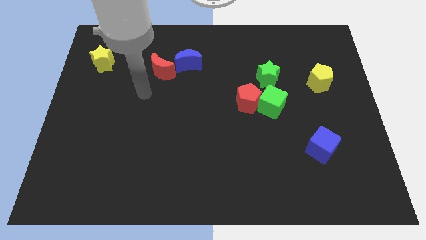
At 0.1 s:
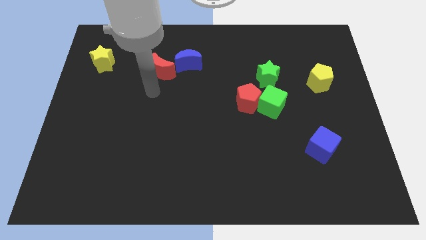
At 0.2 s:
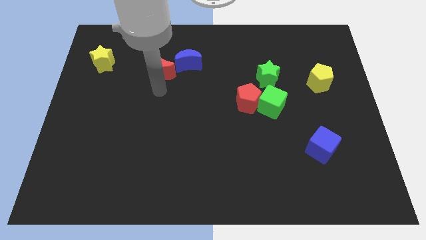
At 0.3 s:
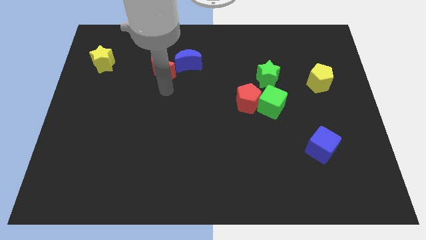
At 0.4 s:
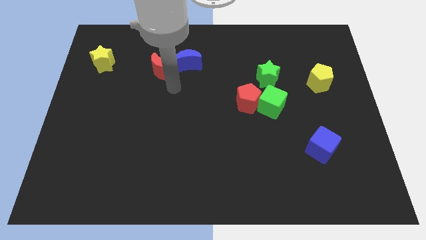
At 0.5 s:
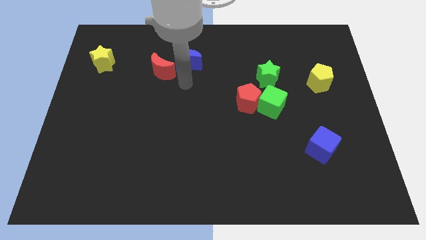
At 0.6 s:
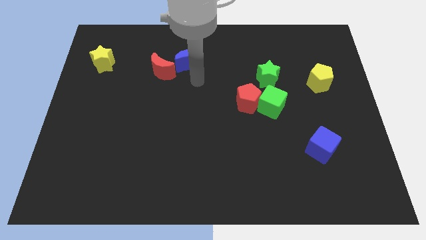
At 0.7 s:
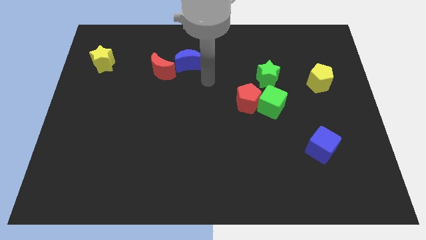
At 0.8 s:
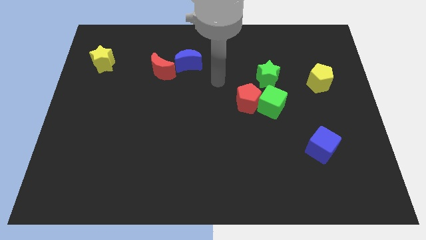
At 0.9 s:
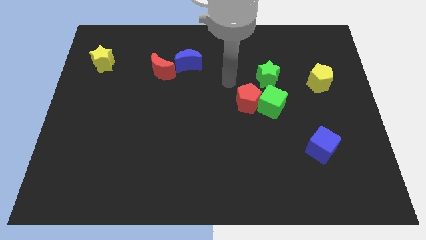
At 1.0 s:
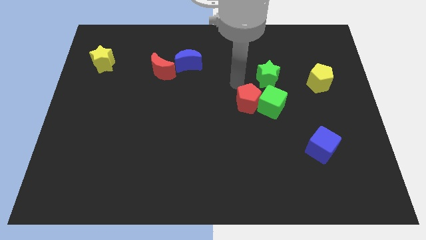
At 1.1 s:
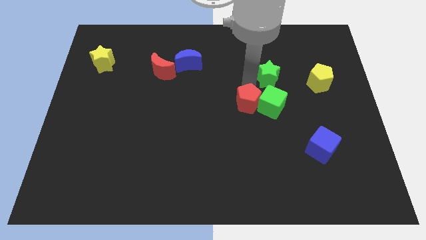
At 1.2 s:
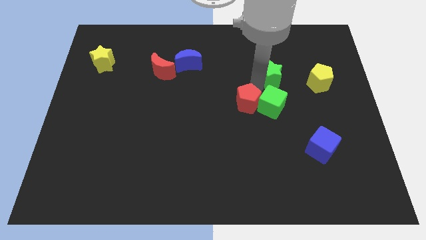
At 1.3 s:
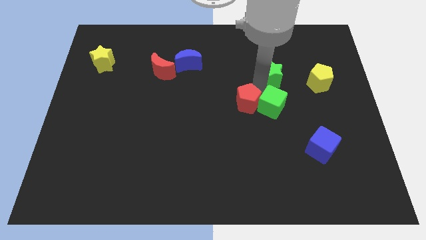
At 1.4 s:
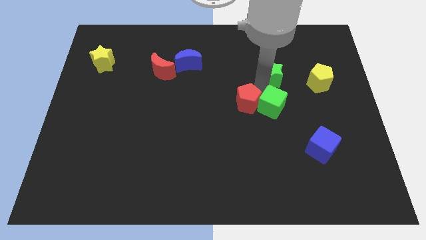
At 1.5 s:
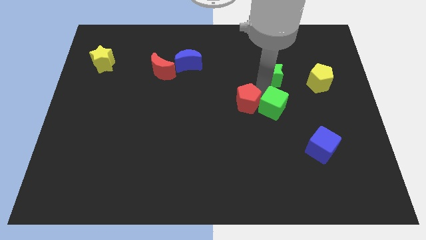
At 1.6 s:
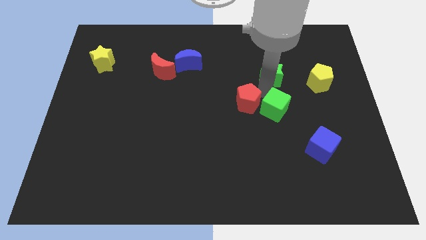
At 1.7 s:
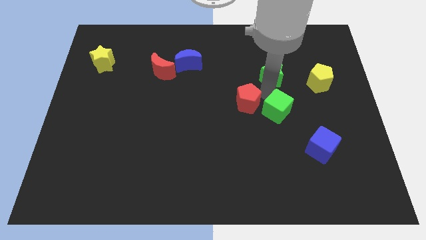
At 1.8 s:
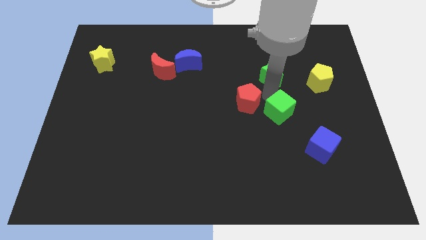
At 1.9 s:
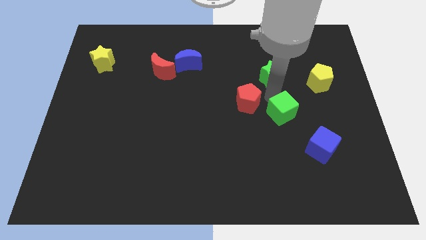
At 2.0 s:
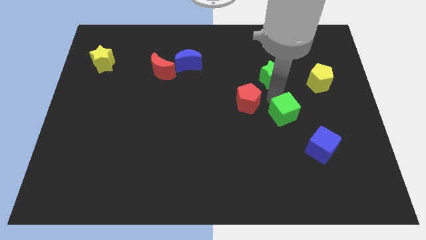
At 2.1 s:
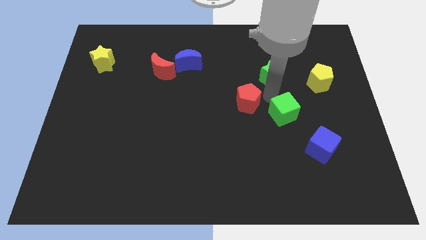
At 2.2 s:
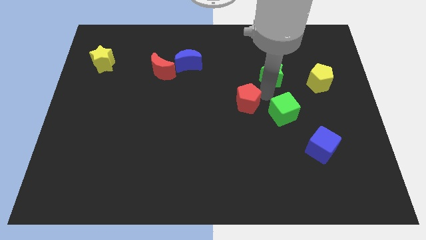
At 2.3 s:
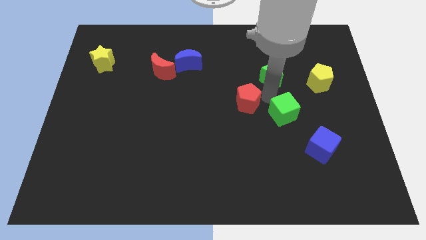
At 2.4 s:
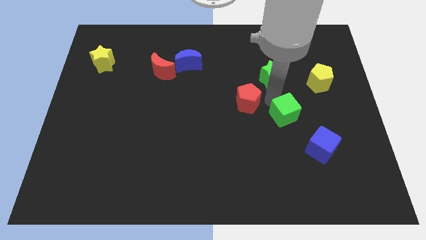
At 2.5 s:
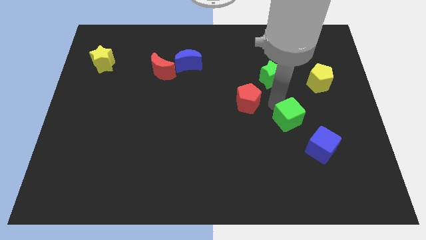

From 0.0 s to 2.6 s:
move the green cube away from the red pentagon and green star

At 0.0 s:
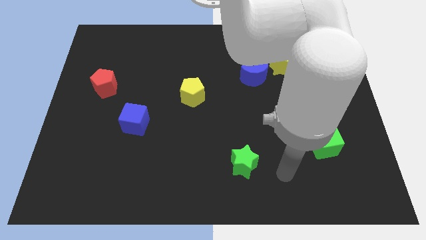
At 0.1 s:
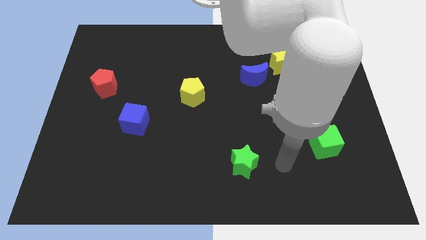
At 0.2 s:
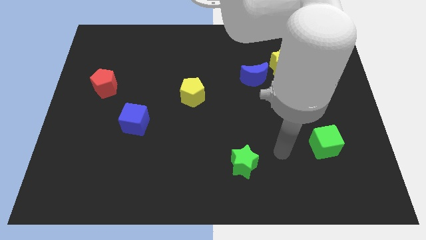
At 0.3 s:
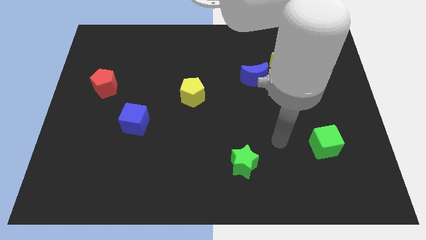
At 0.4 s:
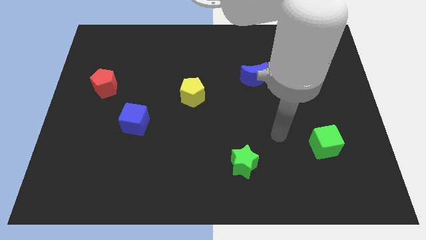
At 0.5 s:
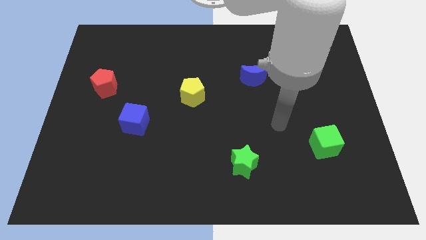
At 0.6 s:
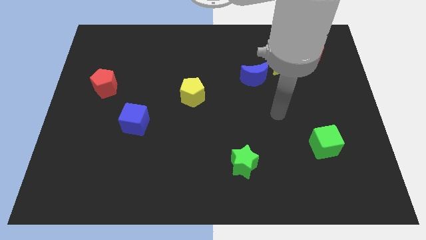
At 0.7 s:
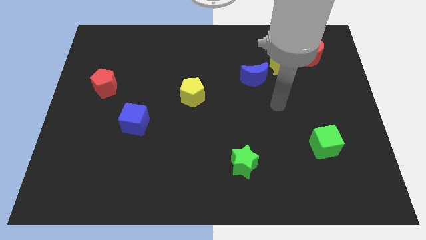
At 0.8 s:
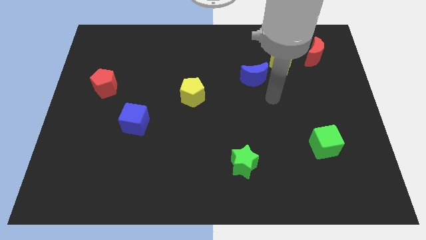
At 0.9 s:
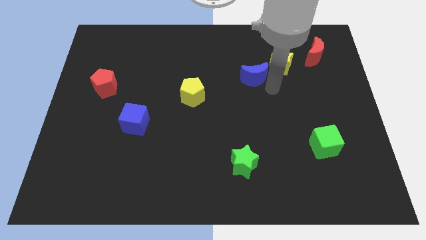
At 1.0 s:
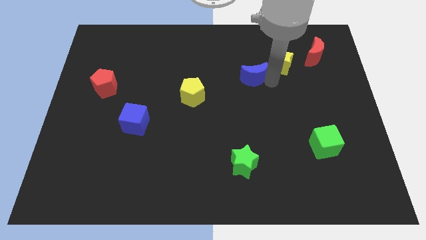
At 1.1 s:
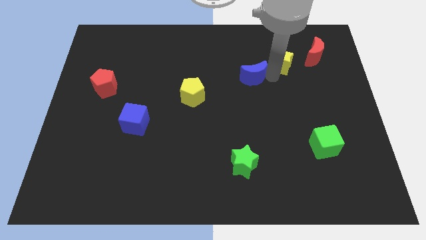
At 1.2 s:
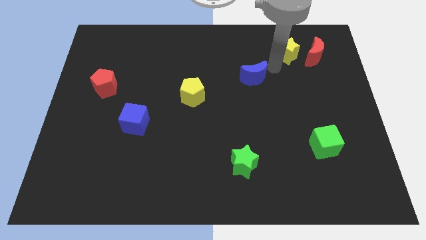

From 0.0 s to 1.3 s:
move the blue moon away from the yellow star

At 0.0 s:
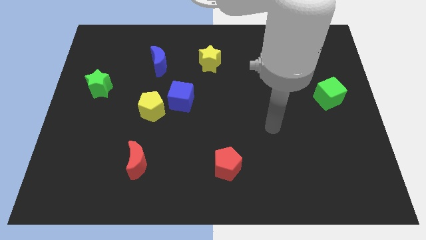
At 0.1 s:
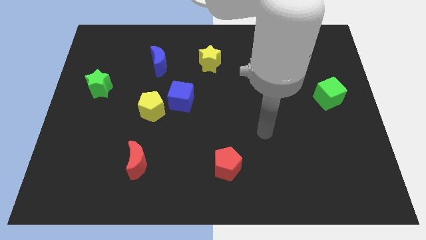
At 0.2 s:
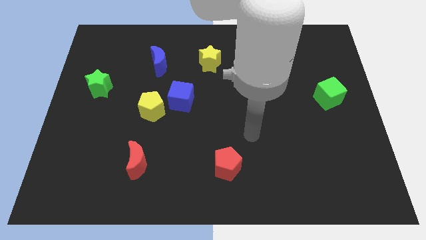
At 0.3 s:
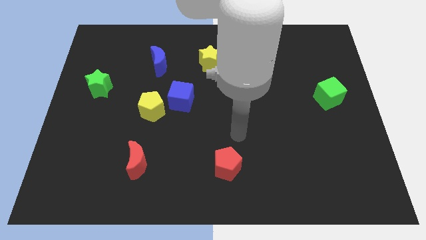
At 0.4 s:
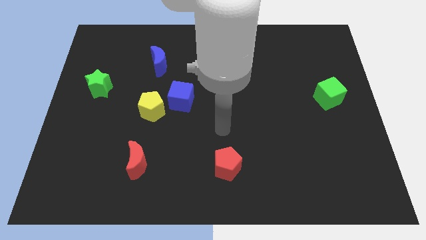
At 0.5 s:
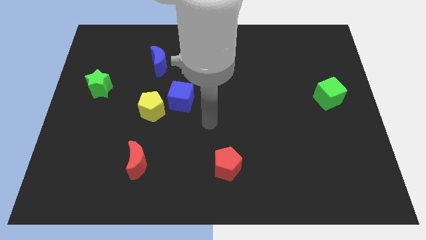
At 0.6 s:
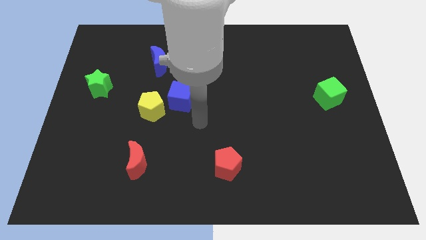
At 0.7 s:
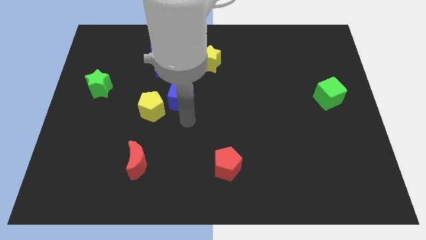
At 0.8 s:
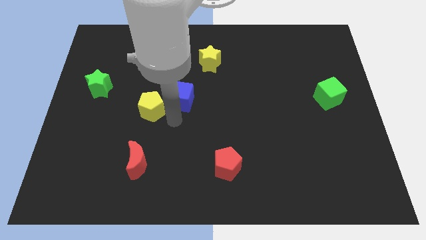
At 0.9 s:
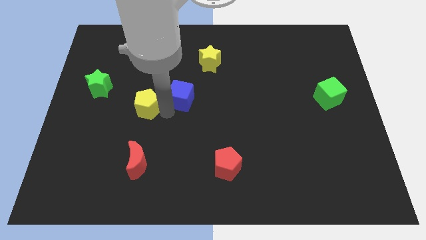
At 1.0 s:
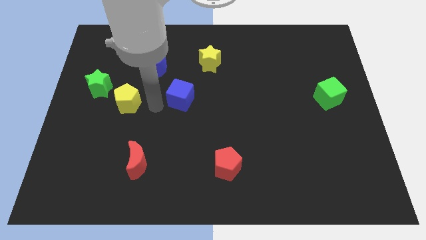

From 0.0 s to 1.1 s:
separate the blue cube from the yellow pentagon

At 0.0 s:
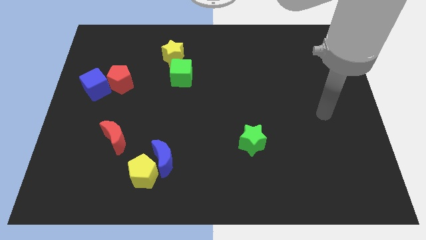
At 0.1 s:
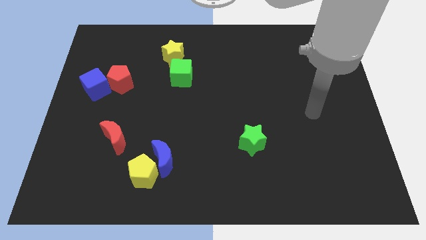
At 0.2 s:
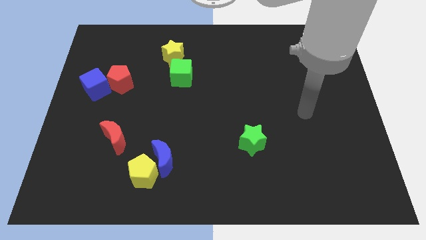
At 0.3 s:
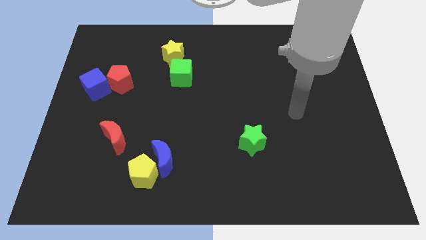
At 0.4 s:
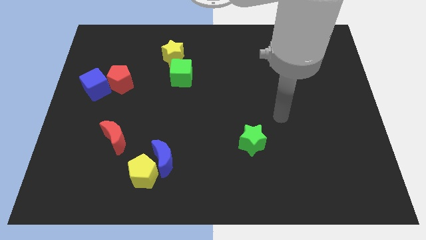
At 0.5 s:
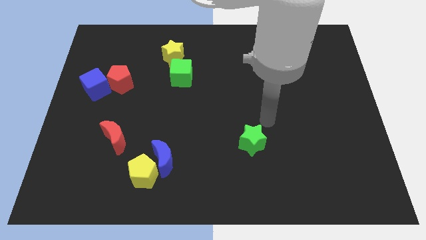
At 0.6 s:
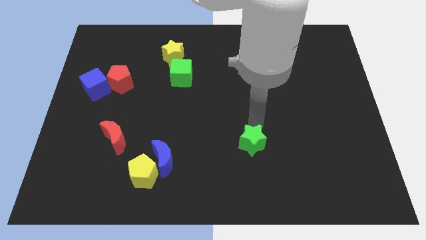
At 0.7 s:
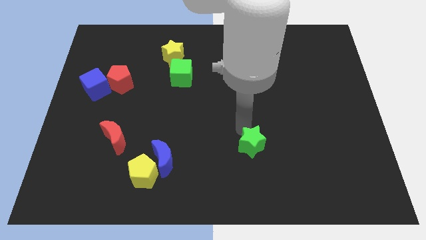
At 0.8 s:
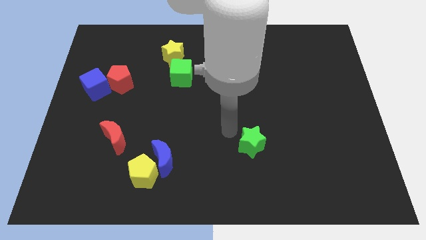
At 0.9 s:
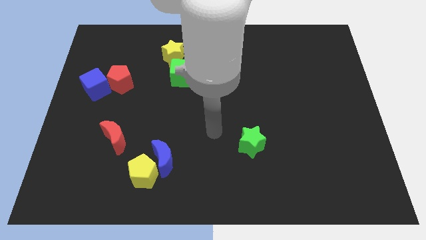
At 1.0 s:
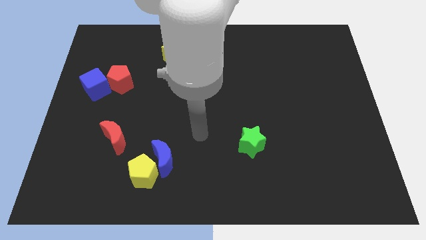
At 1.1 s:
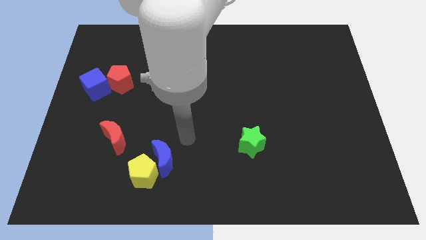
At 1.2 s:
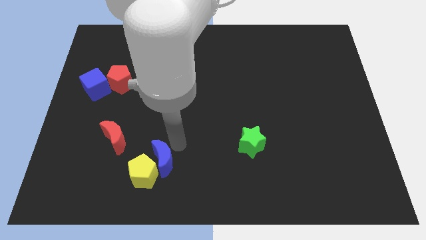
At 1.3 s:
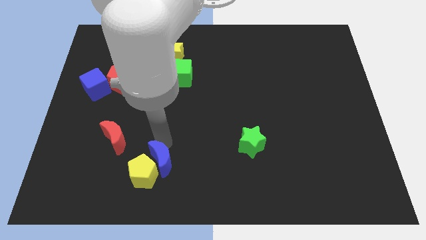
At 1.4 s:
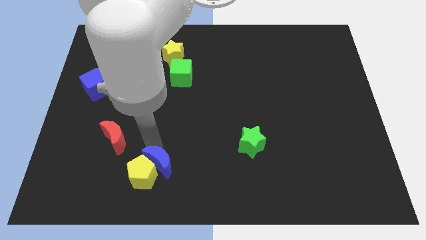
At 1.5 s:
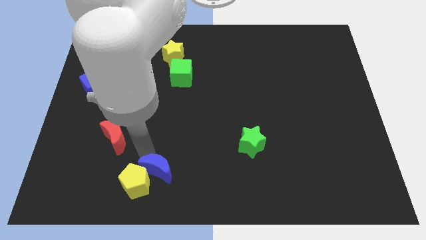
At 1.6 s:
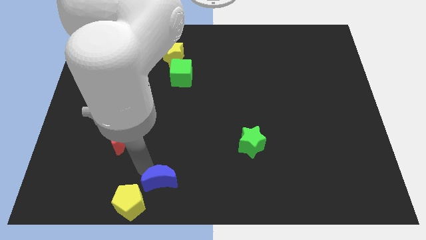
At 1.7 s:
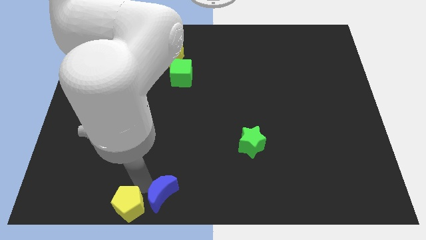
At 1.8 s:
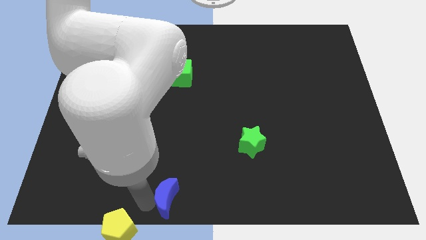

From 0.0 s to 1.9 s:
pull the blue moon apart from the yellow pentagon

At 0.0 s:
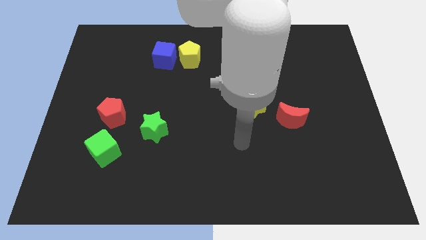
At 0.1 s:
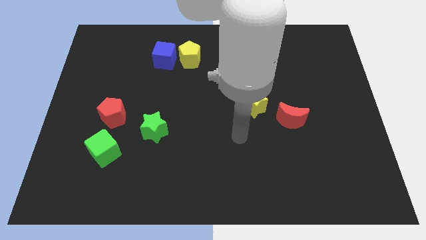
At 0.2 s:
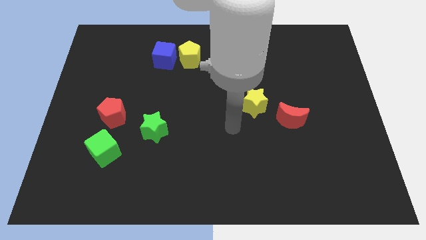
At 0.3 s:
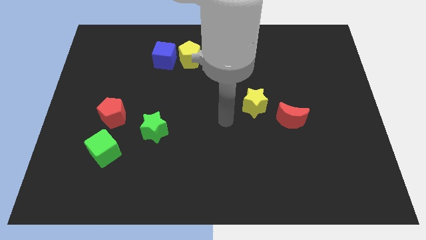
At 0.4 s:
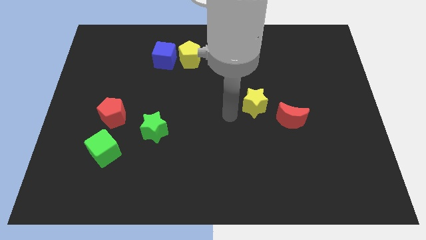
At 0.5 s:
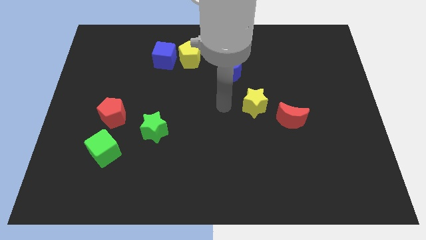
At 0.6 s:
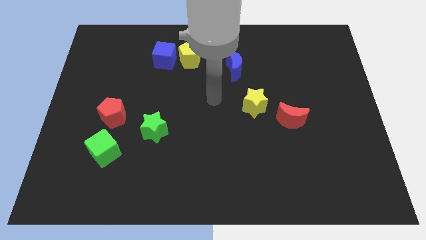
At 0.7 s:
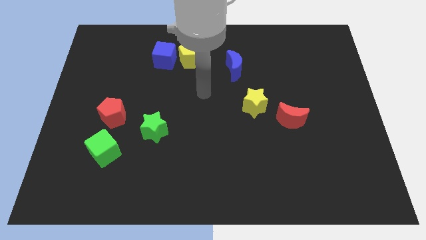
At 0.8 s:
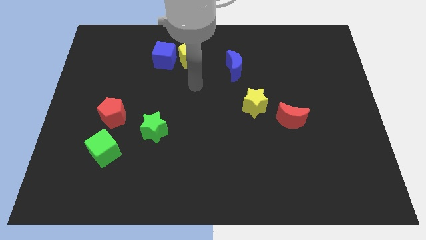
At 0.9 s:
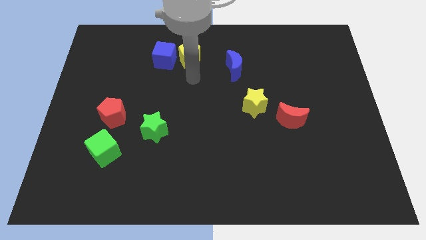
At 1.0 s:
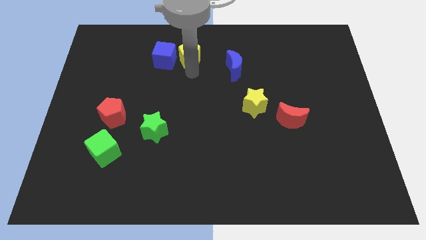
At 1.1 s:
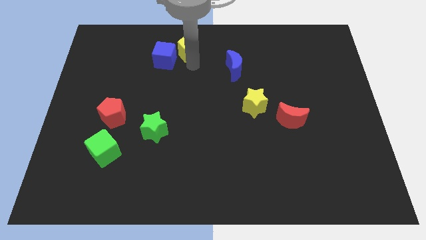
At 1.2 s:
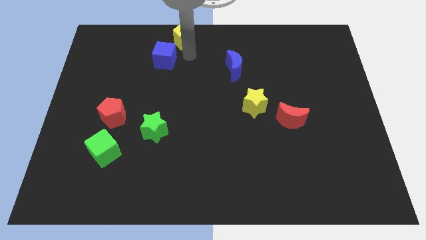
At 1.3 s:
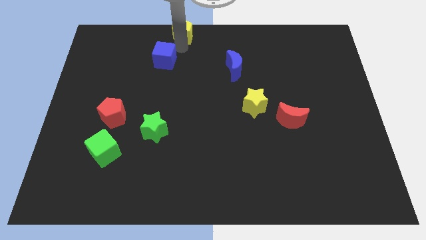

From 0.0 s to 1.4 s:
pull the blue cube apart from the yellow pentagon

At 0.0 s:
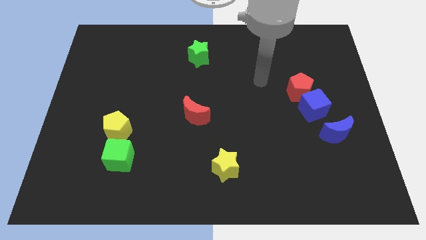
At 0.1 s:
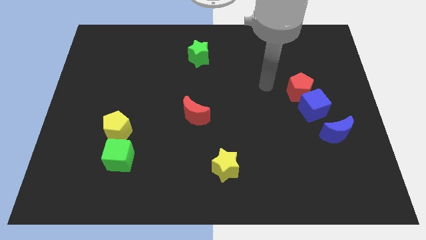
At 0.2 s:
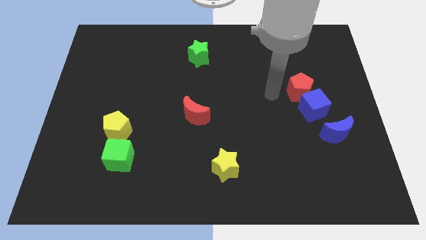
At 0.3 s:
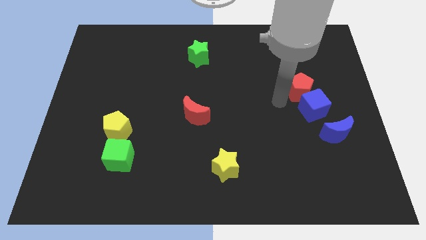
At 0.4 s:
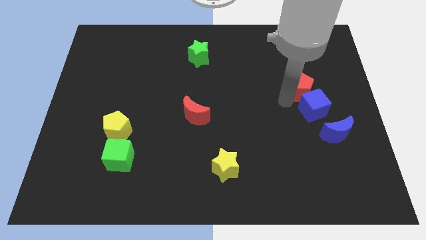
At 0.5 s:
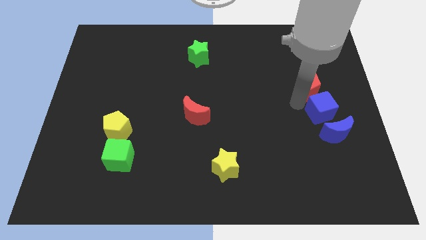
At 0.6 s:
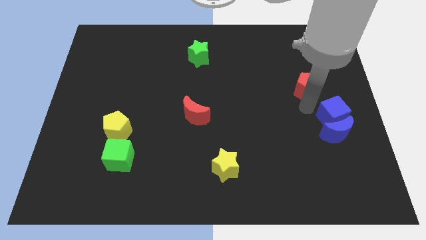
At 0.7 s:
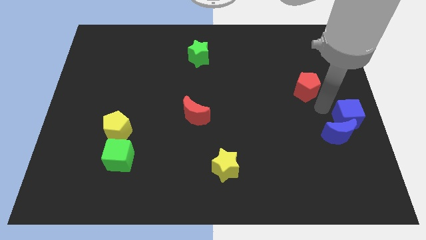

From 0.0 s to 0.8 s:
pull the red pentagon apart from the blue cube

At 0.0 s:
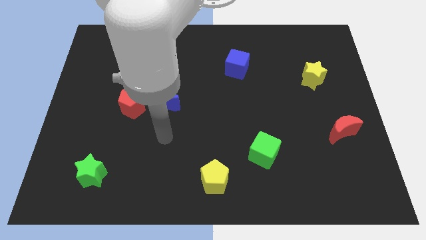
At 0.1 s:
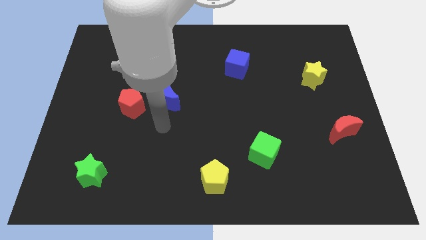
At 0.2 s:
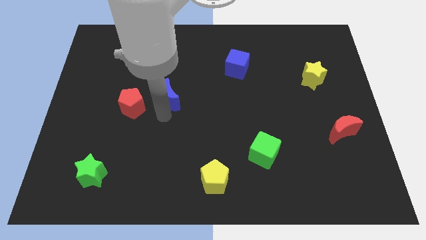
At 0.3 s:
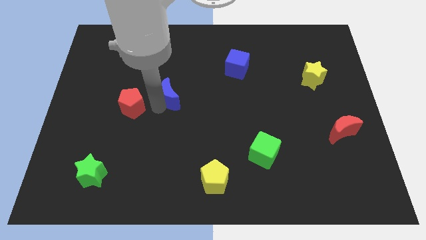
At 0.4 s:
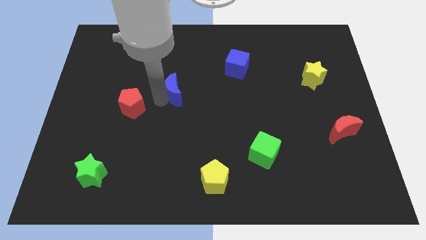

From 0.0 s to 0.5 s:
pull the red pentagon apart from the blue moon
